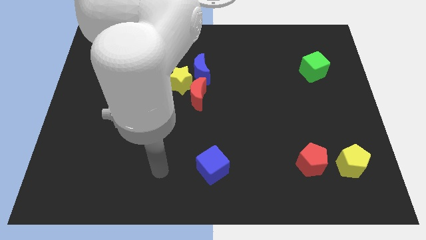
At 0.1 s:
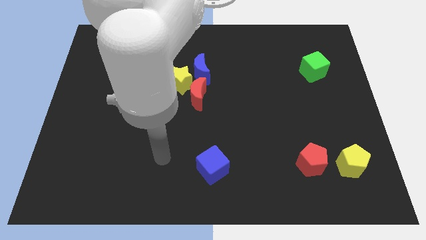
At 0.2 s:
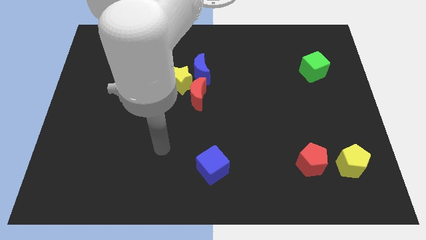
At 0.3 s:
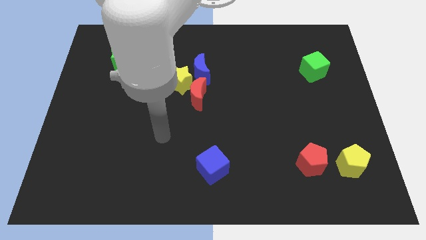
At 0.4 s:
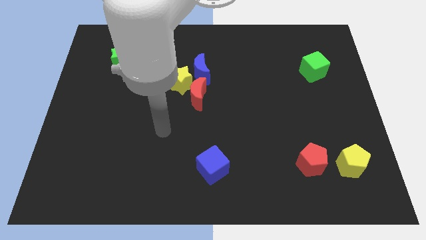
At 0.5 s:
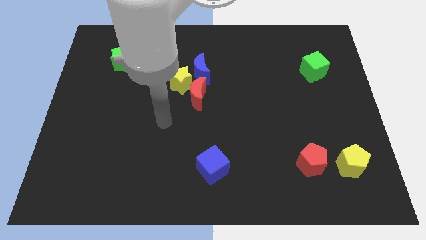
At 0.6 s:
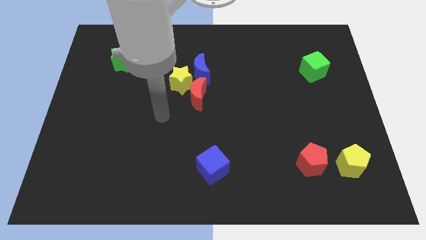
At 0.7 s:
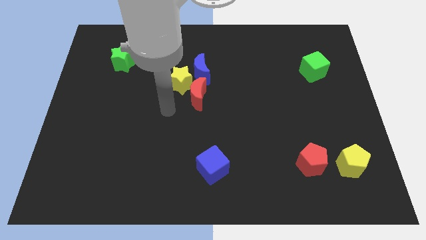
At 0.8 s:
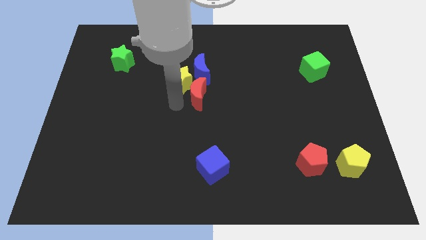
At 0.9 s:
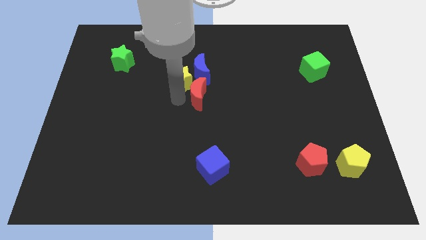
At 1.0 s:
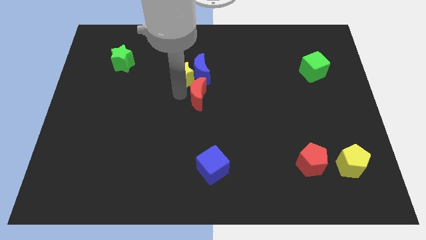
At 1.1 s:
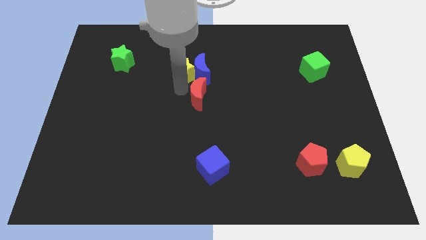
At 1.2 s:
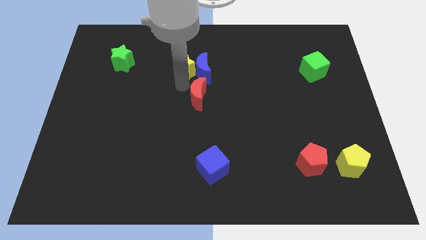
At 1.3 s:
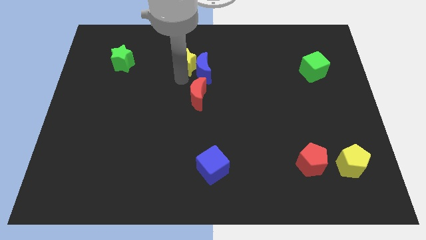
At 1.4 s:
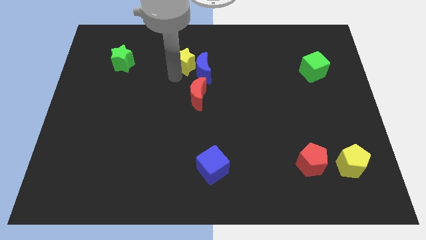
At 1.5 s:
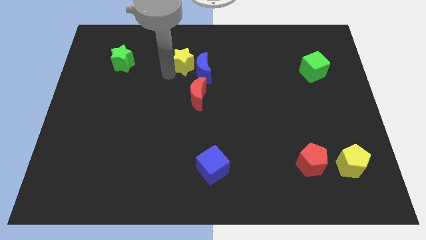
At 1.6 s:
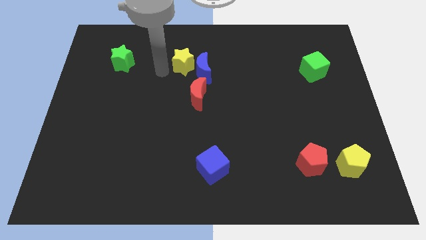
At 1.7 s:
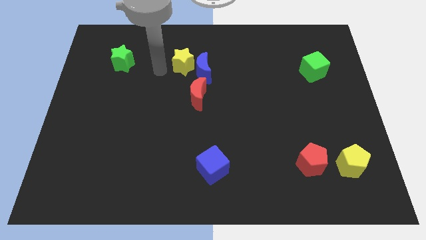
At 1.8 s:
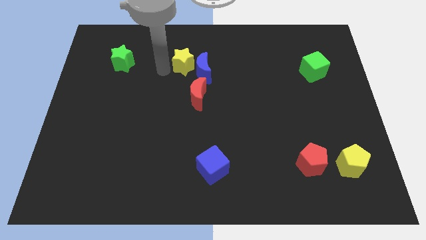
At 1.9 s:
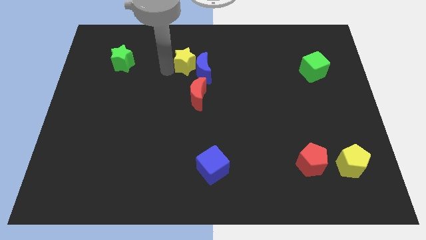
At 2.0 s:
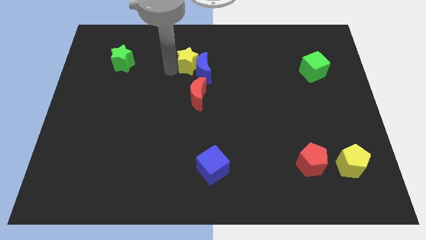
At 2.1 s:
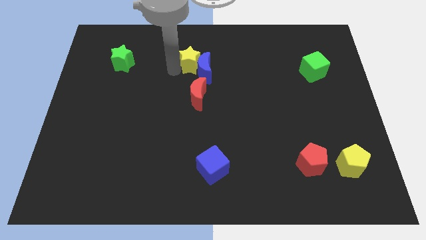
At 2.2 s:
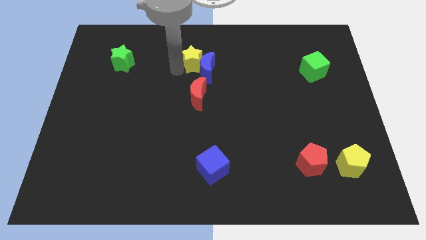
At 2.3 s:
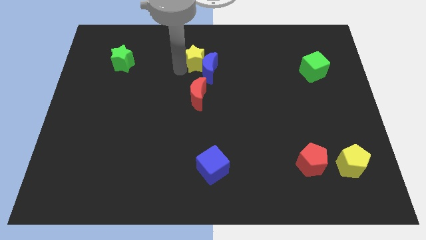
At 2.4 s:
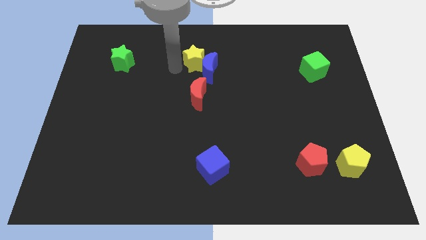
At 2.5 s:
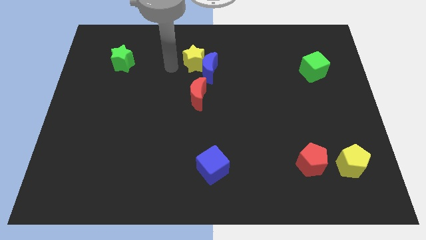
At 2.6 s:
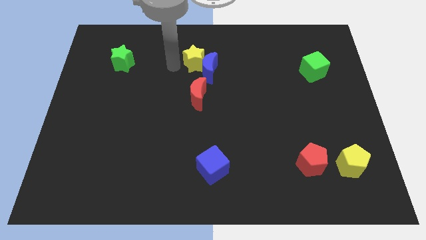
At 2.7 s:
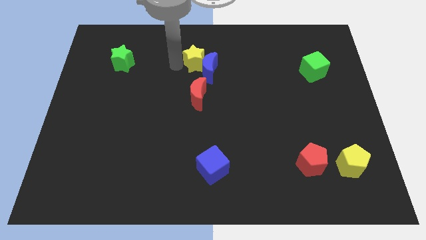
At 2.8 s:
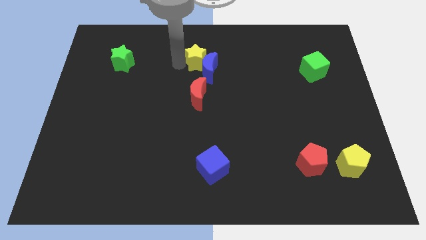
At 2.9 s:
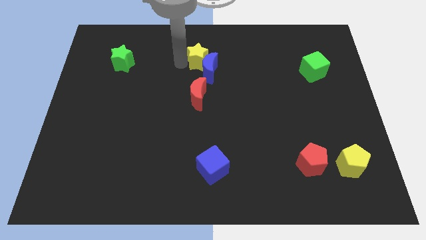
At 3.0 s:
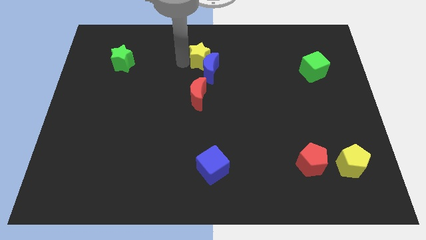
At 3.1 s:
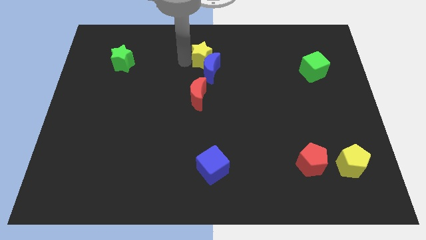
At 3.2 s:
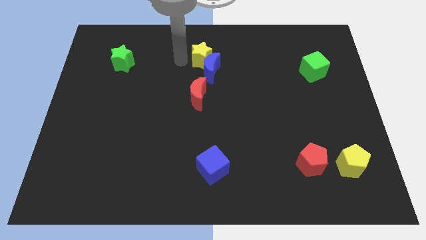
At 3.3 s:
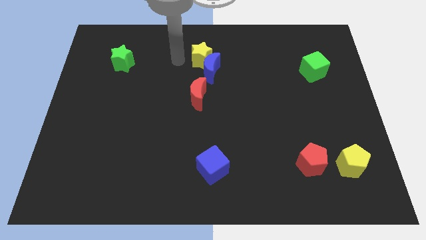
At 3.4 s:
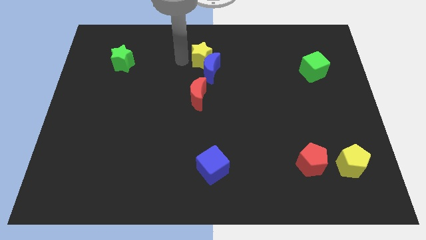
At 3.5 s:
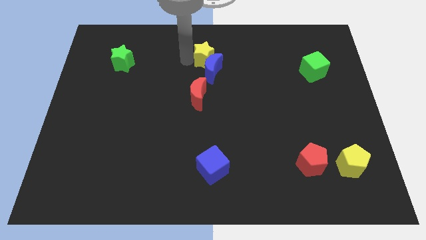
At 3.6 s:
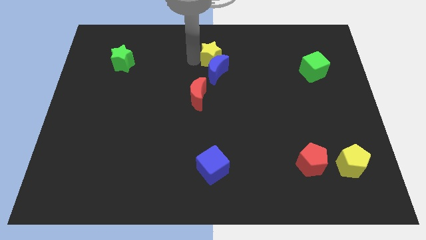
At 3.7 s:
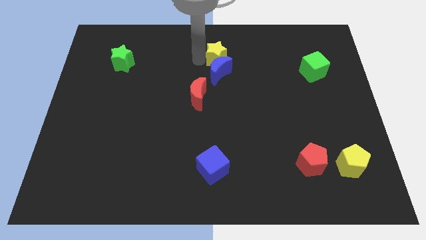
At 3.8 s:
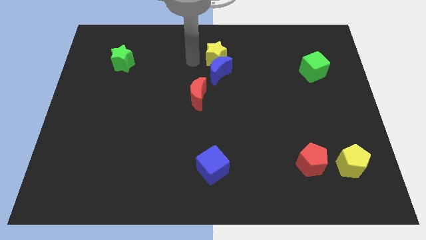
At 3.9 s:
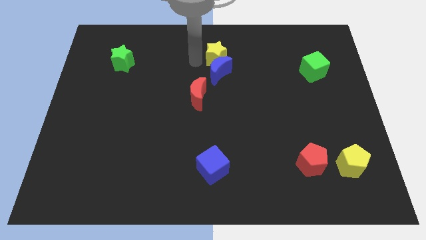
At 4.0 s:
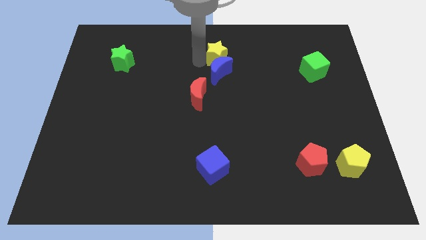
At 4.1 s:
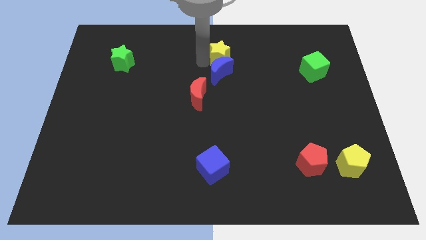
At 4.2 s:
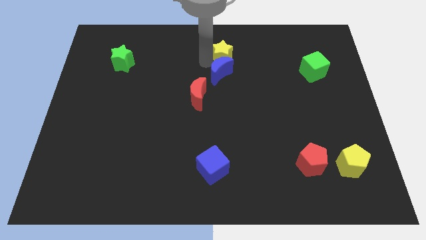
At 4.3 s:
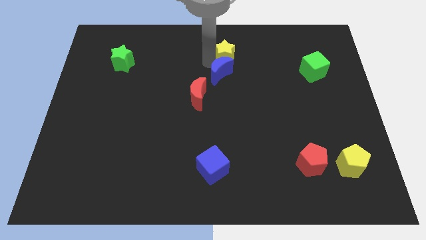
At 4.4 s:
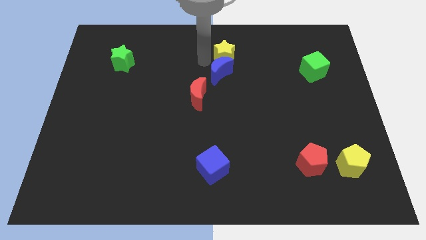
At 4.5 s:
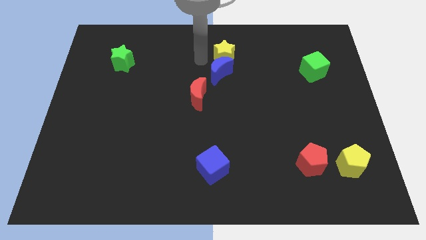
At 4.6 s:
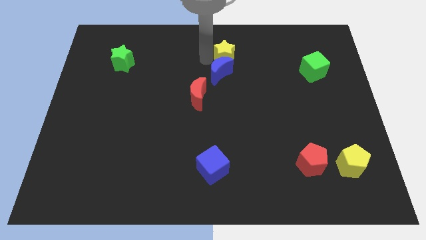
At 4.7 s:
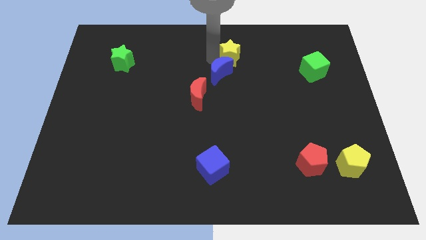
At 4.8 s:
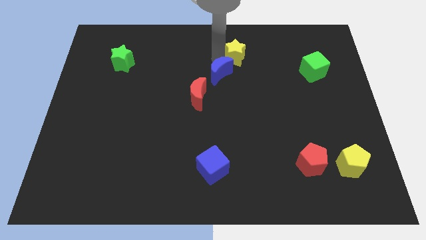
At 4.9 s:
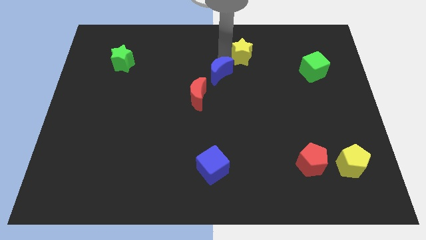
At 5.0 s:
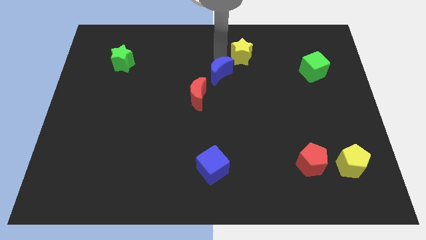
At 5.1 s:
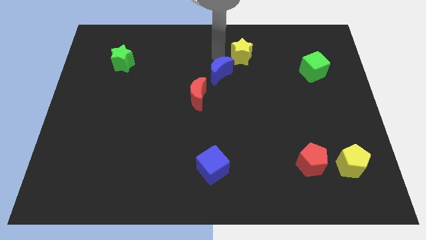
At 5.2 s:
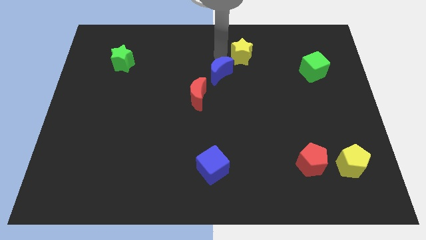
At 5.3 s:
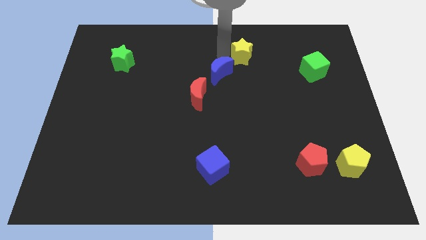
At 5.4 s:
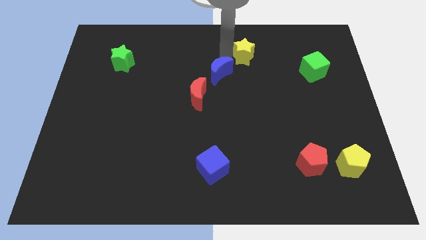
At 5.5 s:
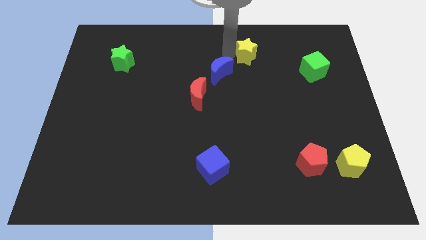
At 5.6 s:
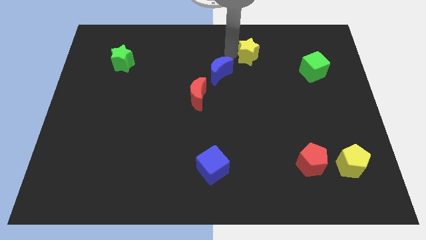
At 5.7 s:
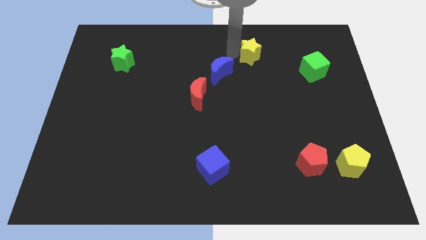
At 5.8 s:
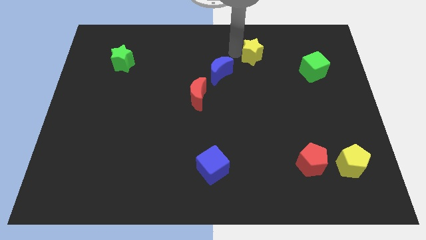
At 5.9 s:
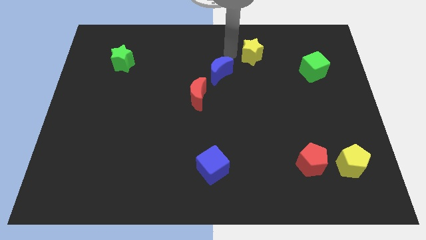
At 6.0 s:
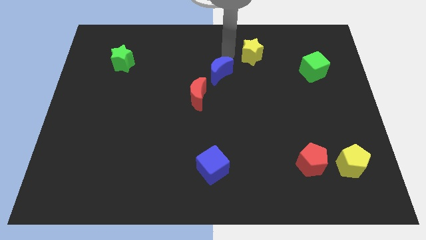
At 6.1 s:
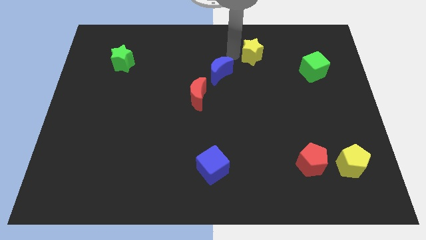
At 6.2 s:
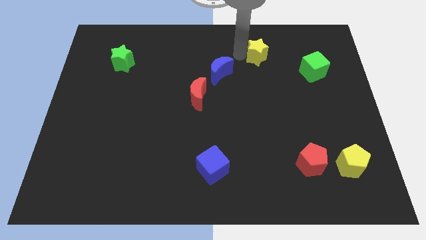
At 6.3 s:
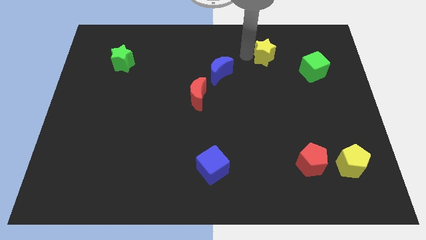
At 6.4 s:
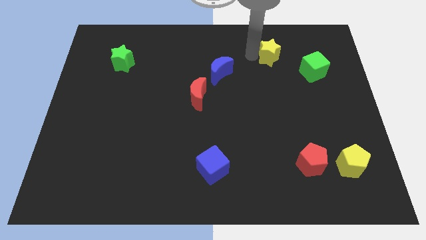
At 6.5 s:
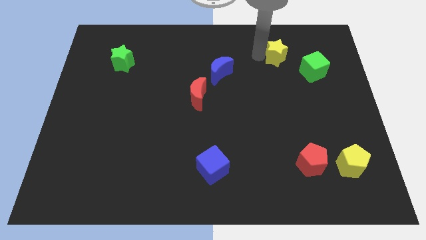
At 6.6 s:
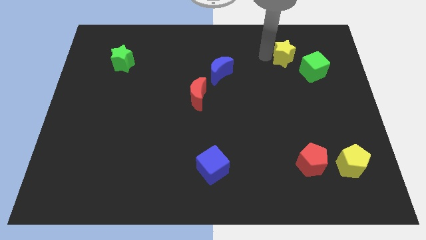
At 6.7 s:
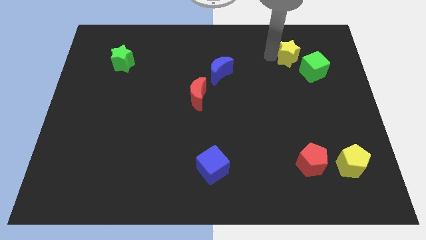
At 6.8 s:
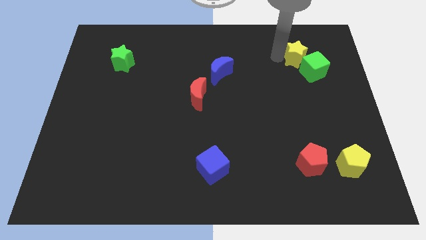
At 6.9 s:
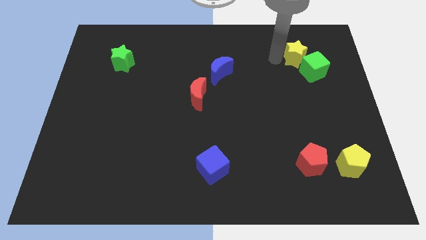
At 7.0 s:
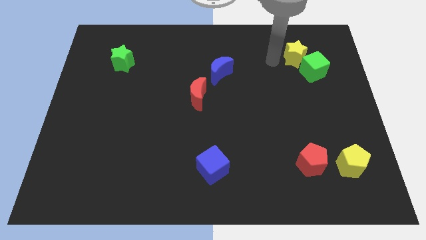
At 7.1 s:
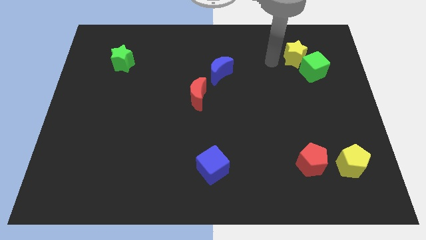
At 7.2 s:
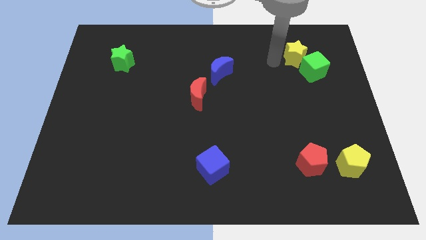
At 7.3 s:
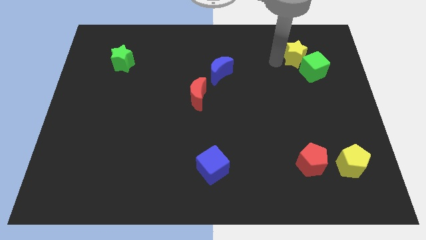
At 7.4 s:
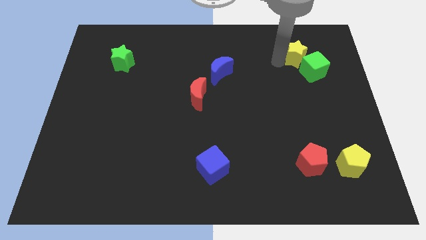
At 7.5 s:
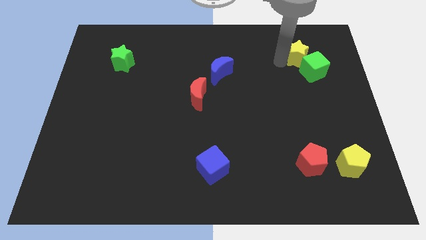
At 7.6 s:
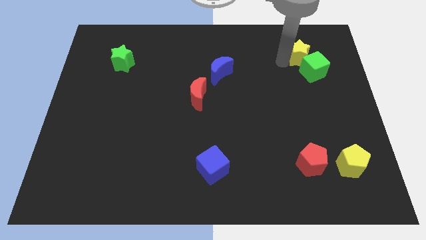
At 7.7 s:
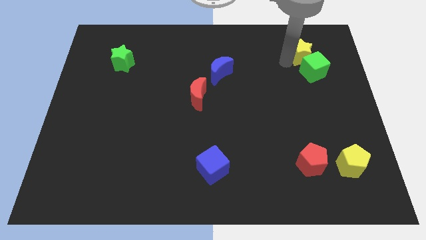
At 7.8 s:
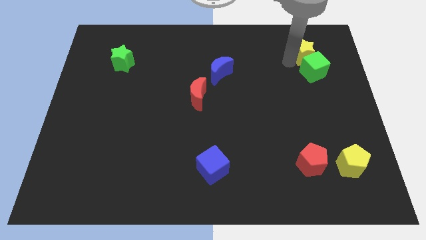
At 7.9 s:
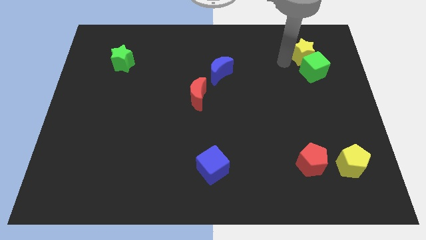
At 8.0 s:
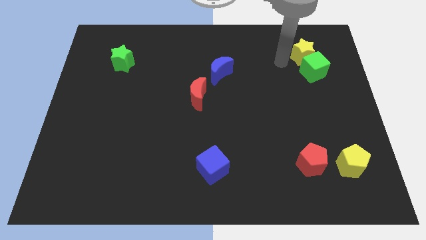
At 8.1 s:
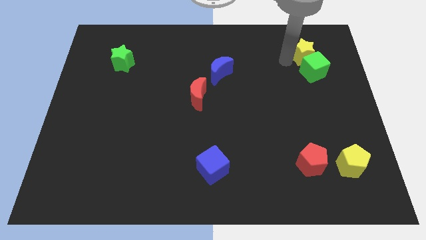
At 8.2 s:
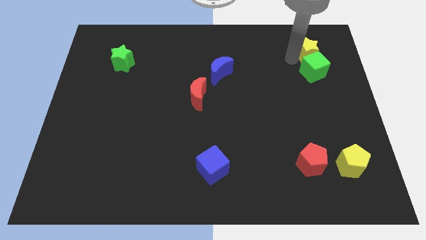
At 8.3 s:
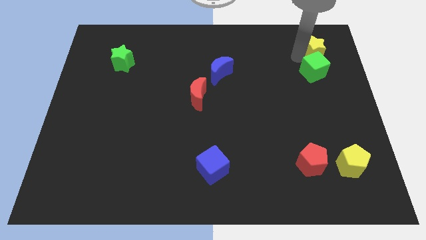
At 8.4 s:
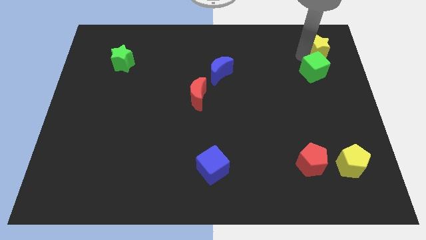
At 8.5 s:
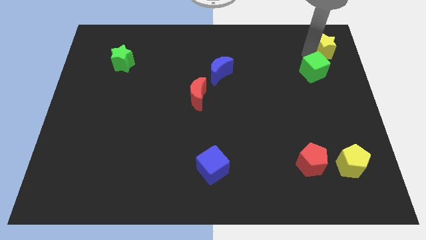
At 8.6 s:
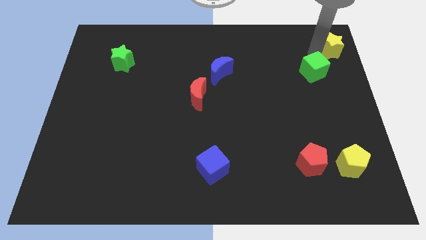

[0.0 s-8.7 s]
move the yellow star to the top right corner
